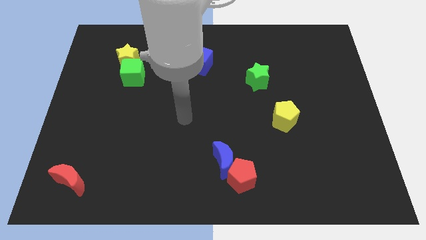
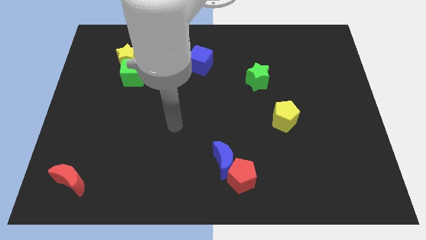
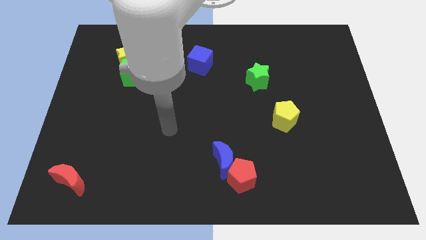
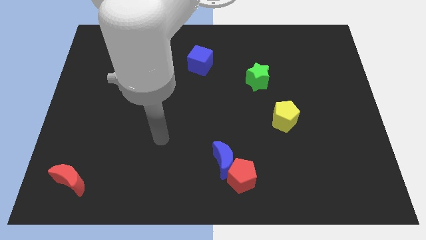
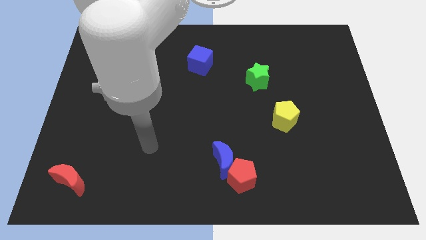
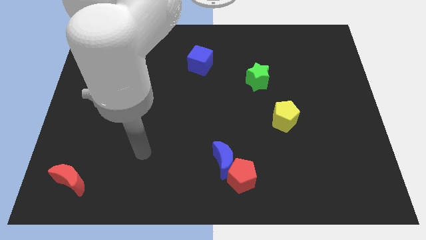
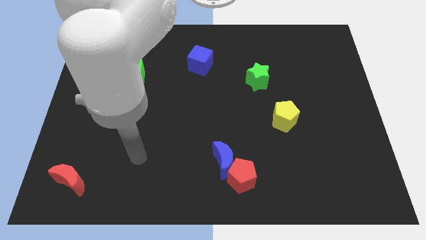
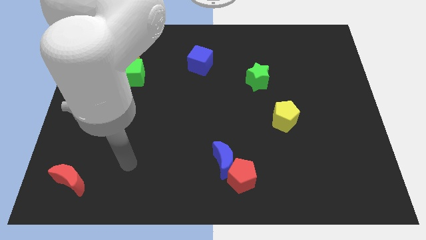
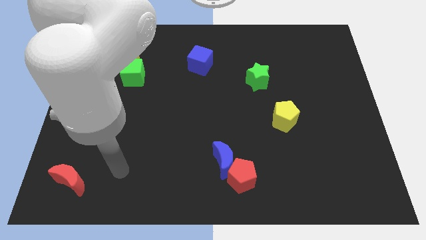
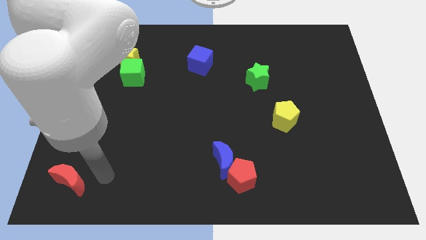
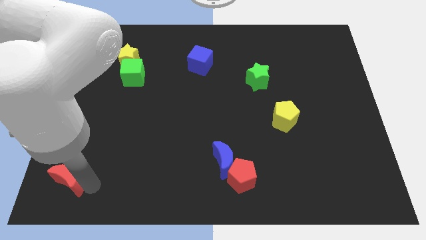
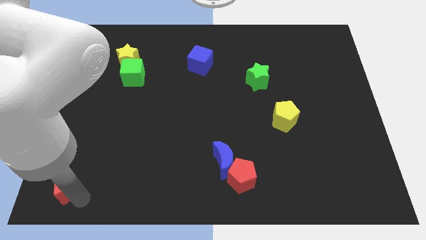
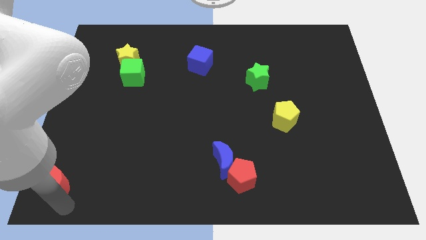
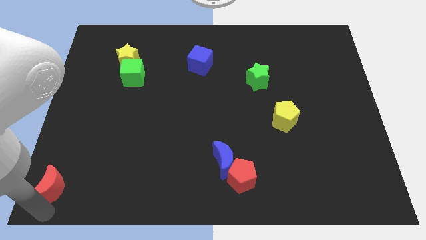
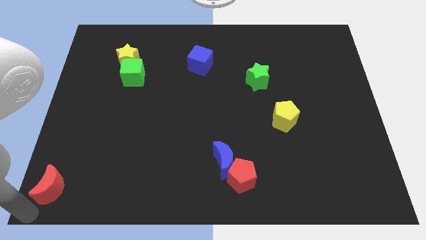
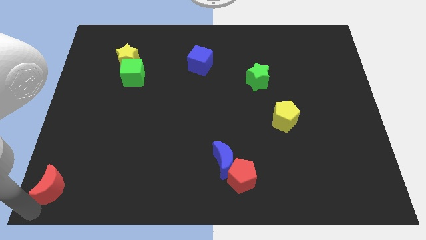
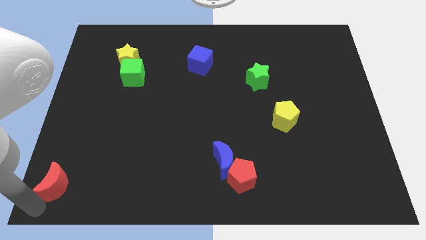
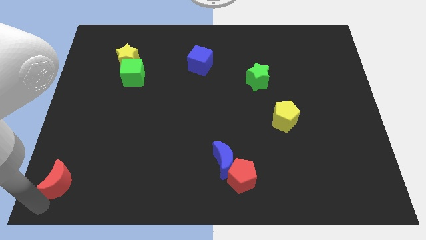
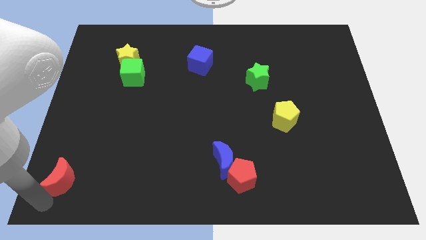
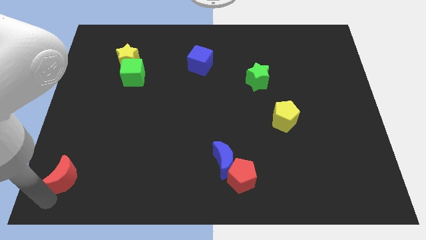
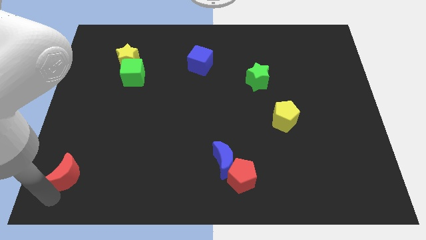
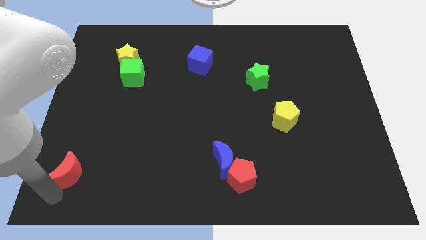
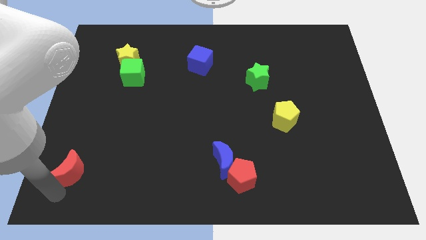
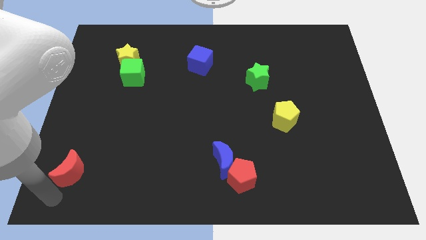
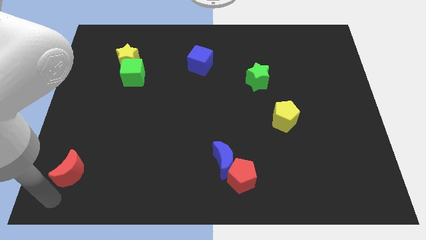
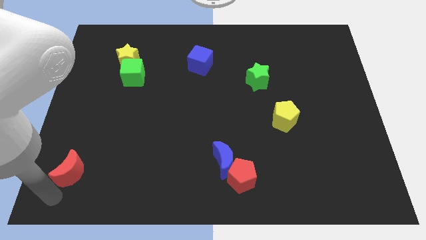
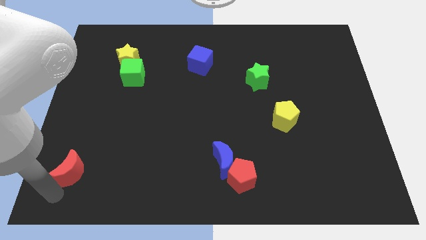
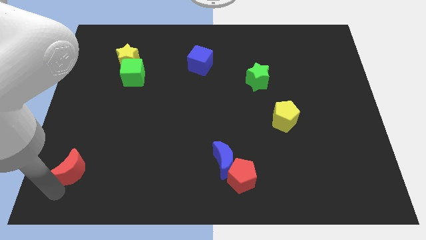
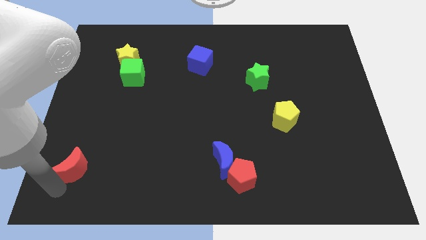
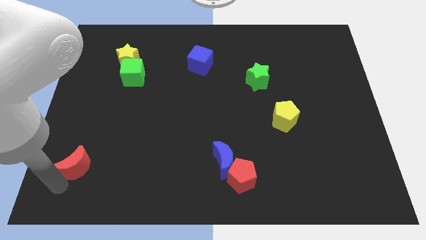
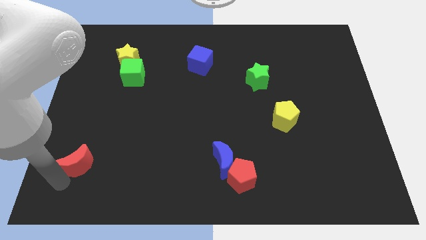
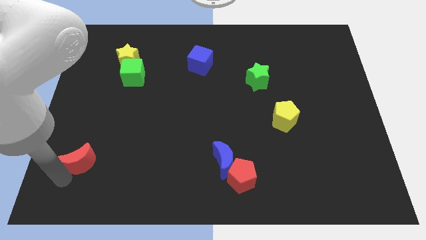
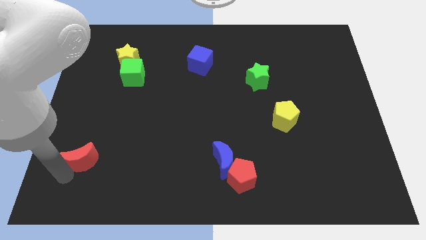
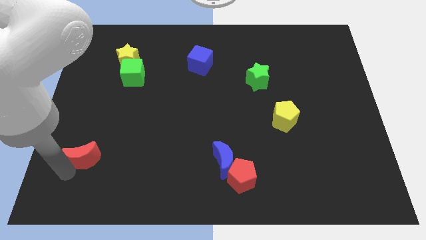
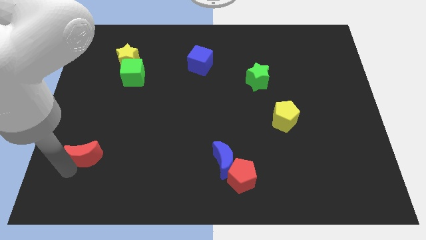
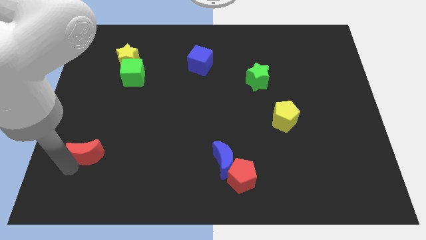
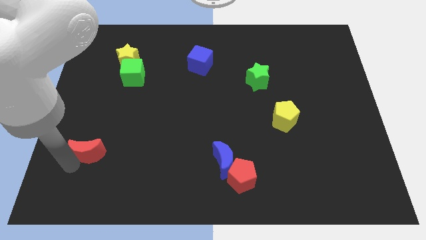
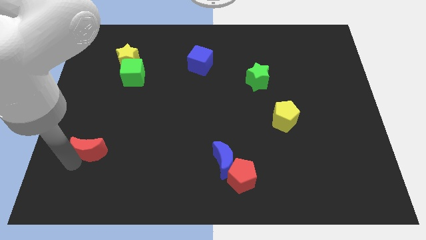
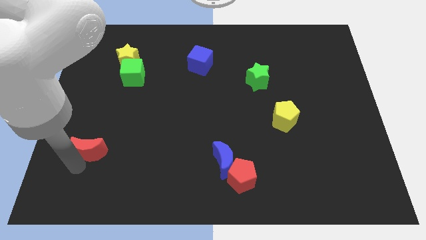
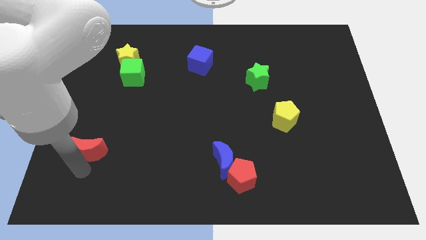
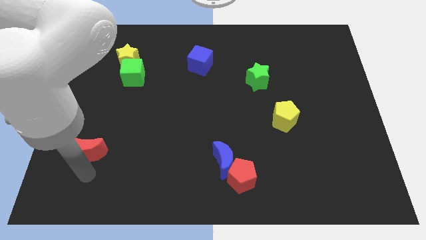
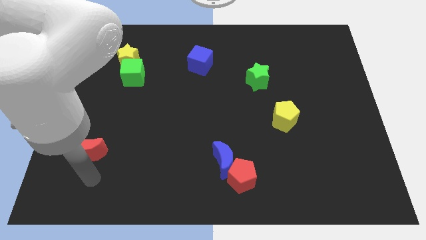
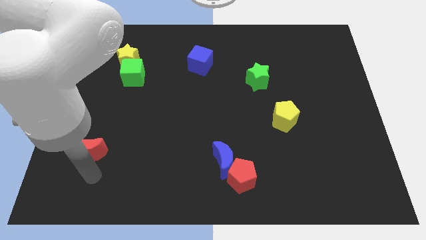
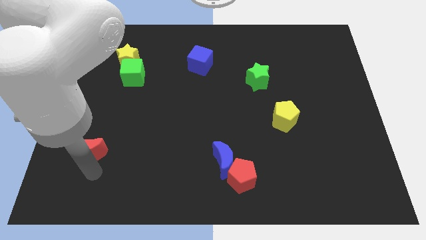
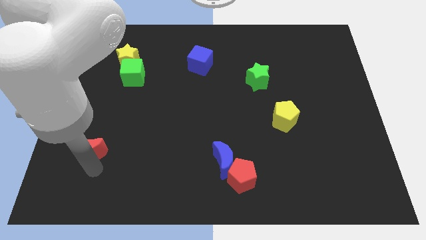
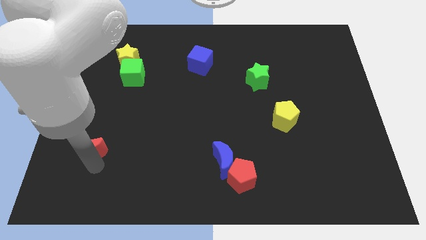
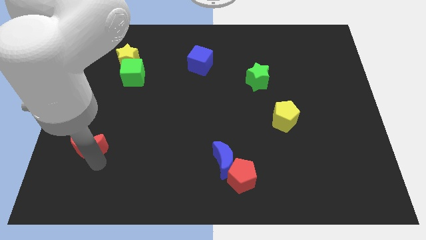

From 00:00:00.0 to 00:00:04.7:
push the red moon slightly upwards

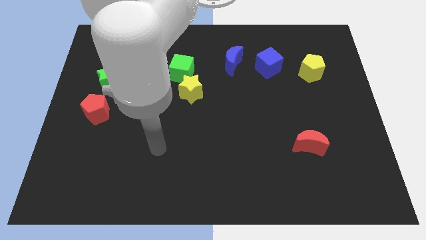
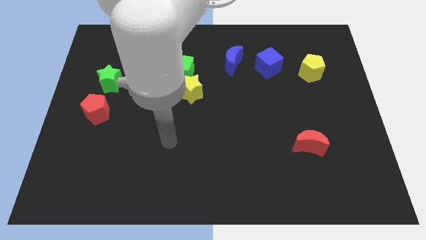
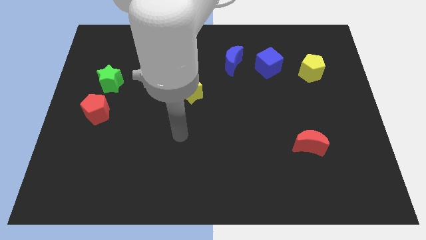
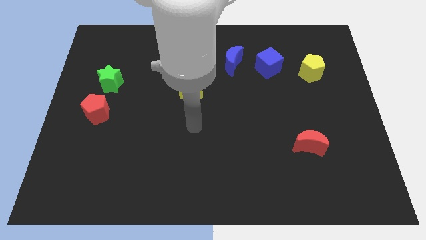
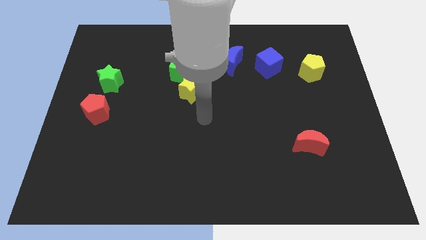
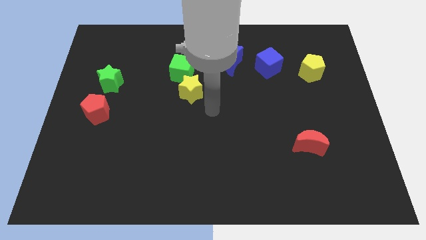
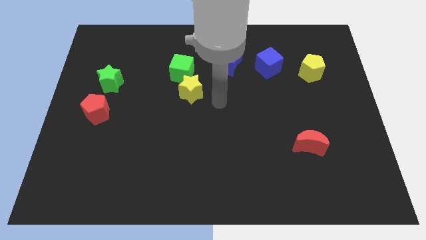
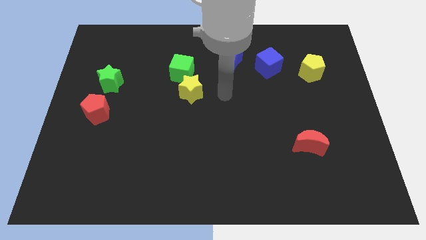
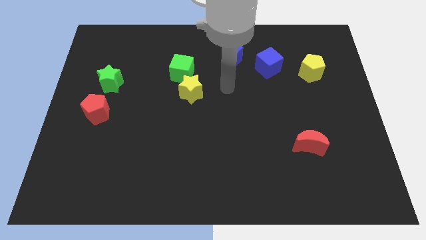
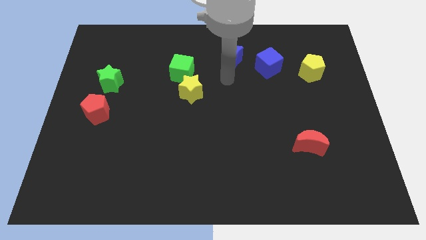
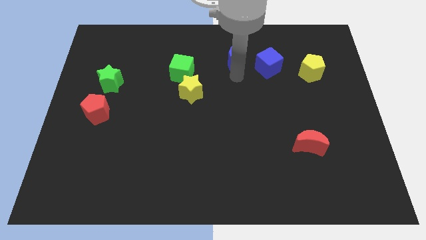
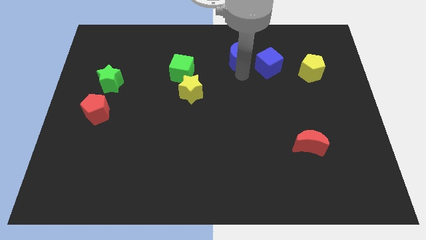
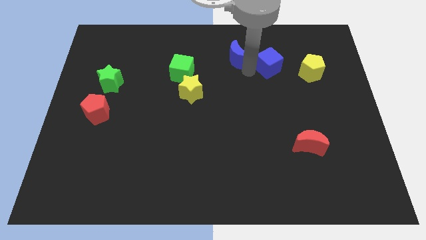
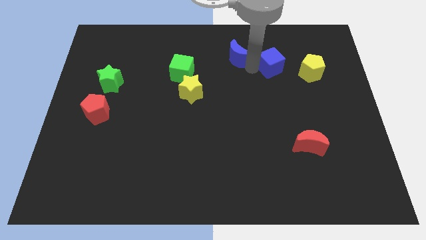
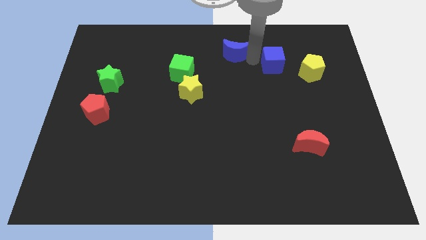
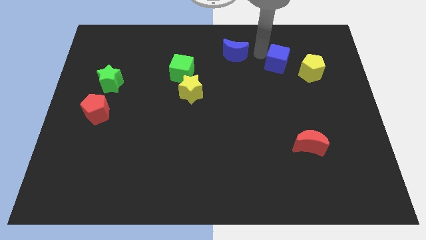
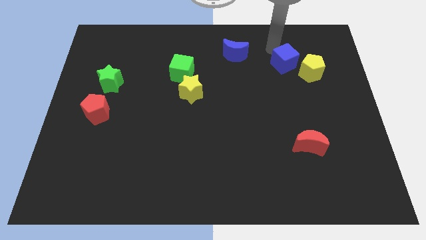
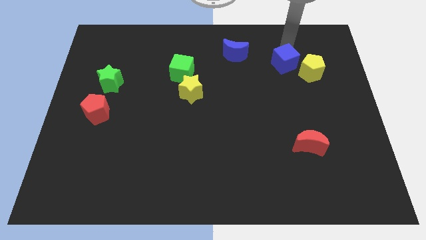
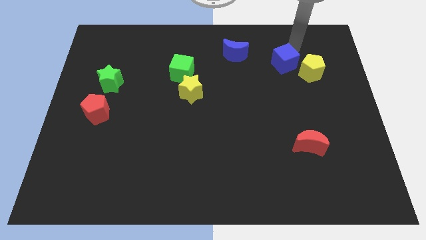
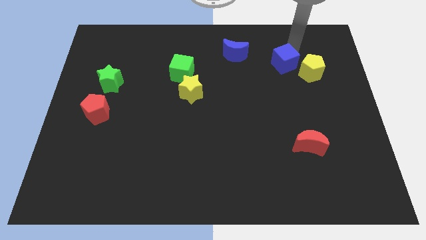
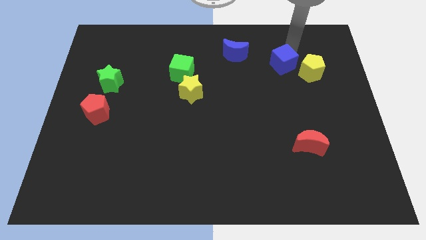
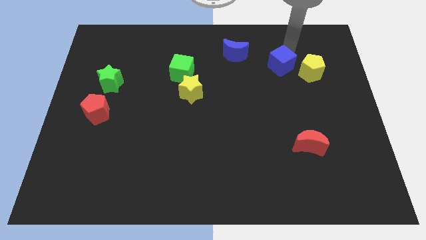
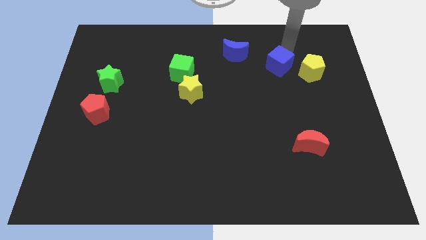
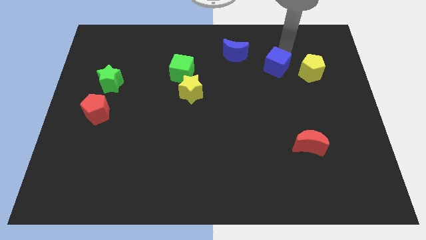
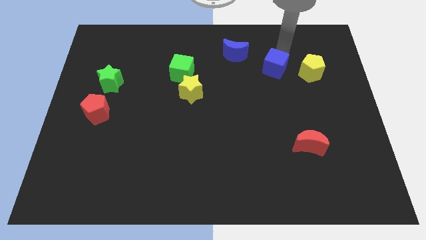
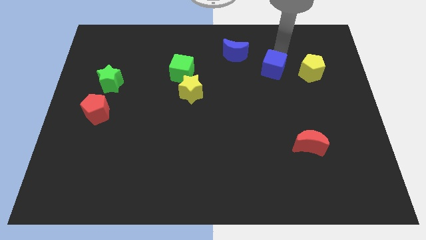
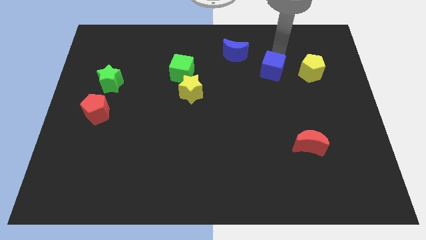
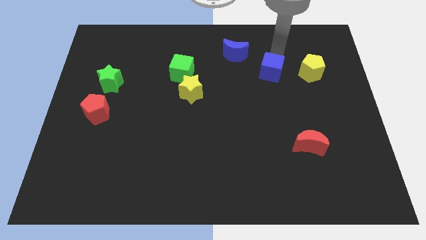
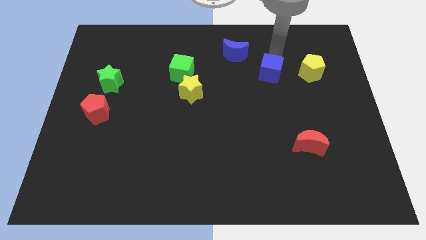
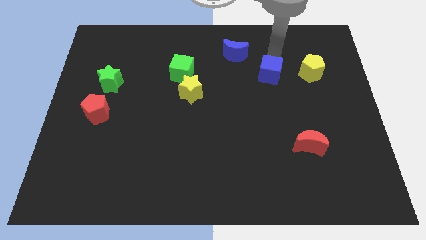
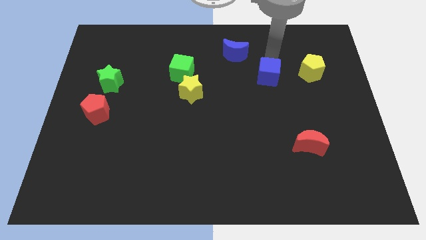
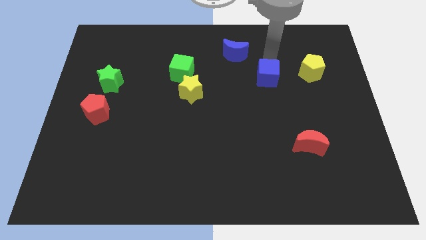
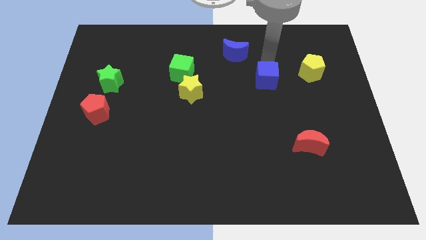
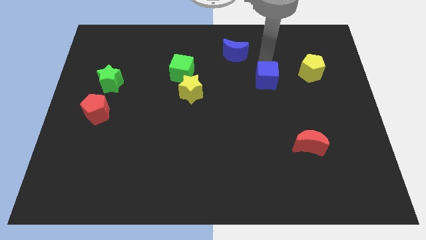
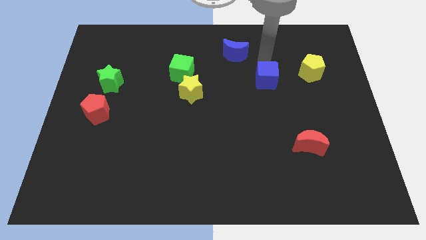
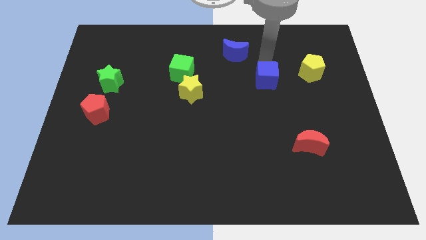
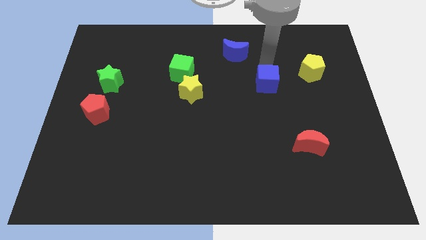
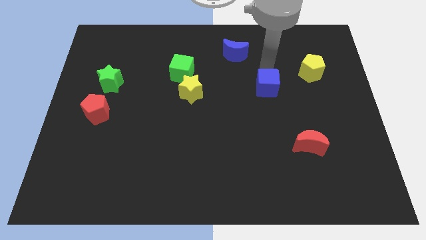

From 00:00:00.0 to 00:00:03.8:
move the blue cube a bit down
